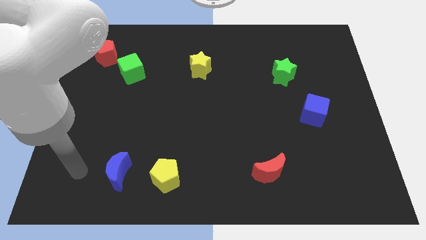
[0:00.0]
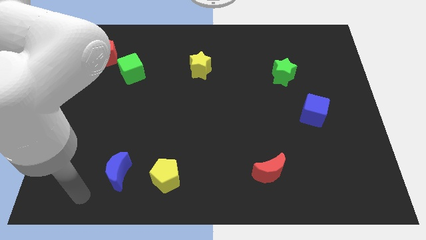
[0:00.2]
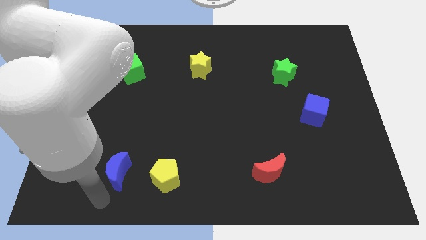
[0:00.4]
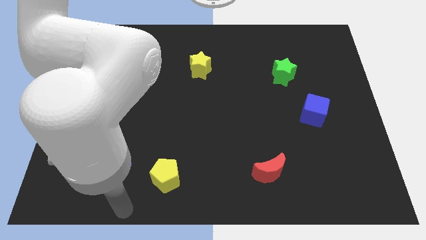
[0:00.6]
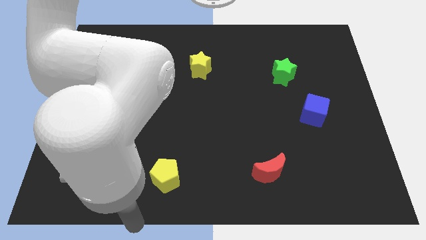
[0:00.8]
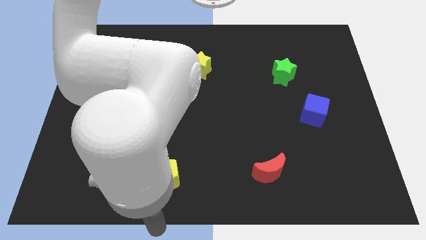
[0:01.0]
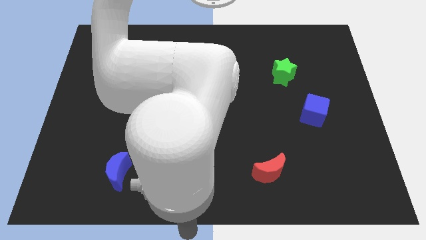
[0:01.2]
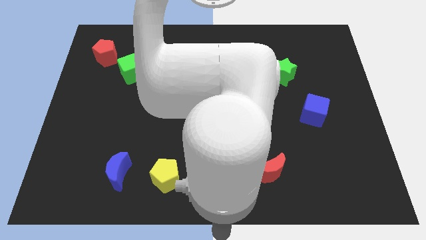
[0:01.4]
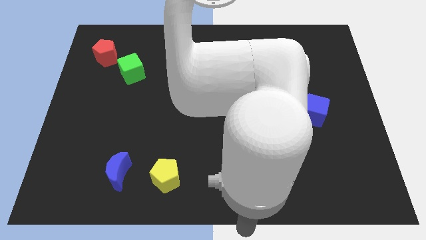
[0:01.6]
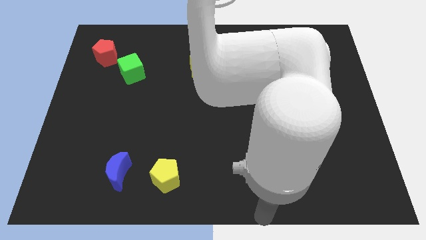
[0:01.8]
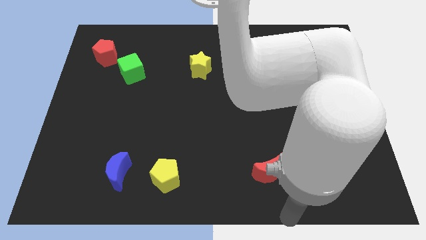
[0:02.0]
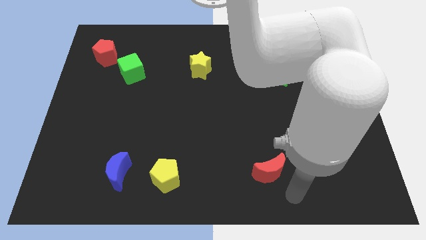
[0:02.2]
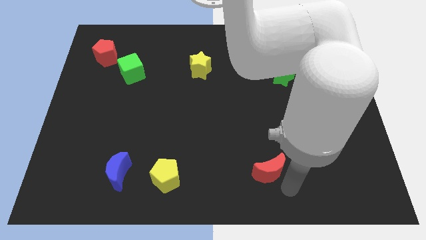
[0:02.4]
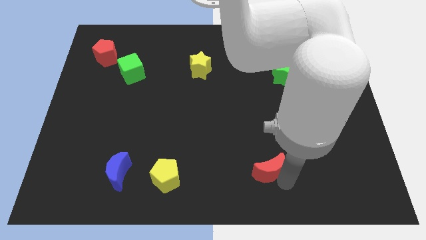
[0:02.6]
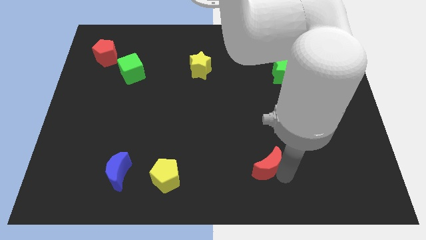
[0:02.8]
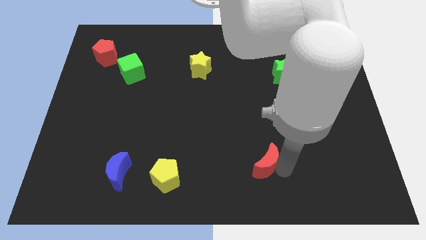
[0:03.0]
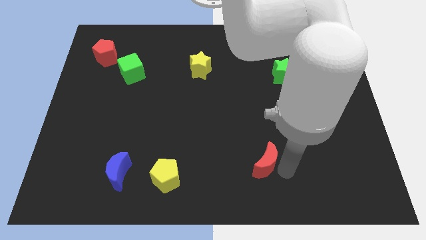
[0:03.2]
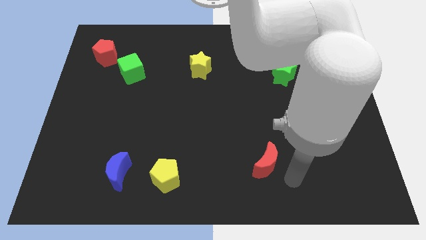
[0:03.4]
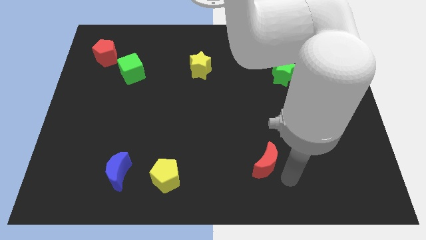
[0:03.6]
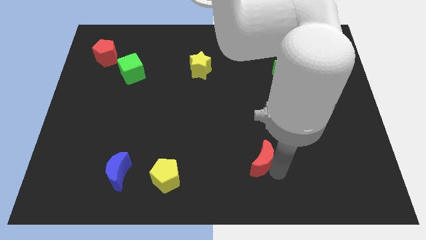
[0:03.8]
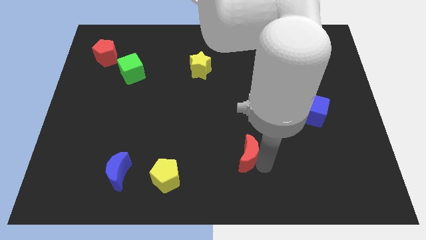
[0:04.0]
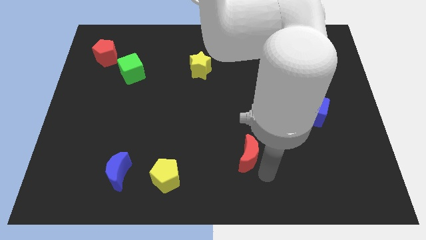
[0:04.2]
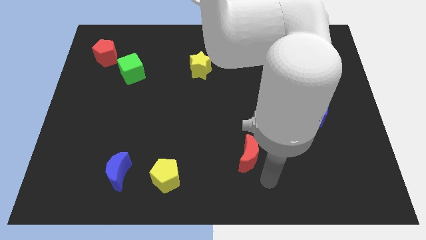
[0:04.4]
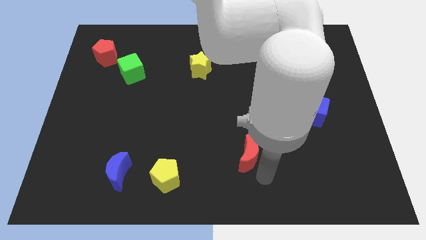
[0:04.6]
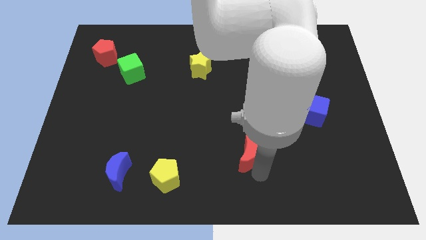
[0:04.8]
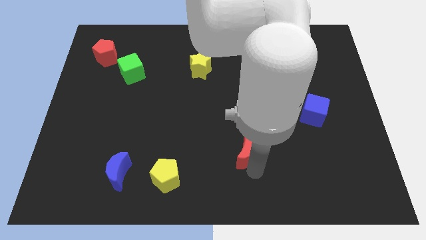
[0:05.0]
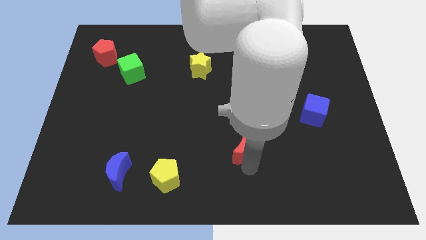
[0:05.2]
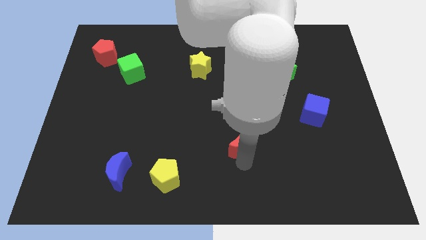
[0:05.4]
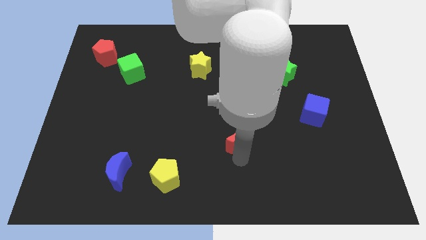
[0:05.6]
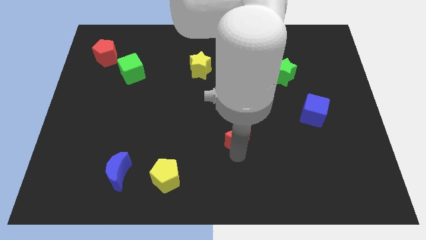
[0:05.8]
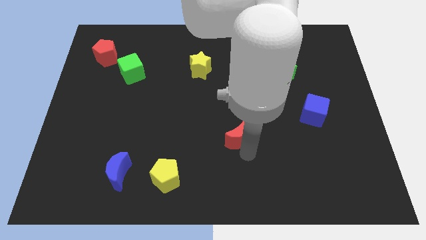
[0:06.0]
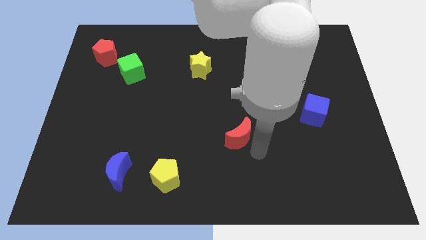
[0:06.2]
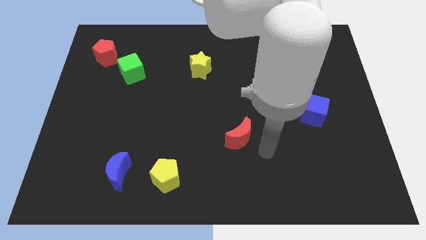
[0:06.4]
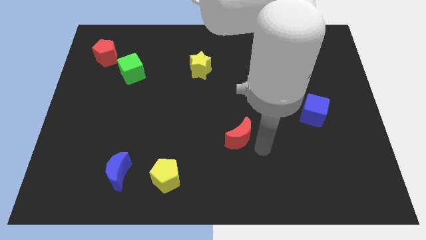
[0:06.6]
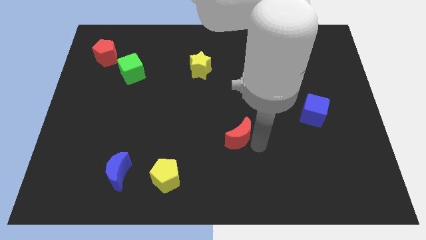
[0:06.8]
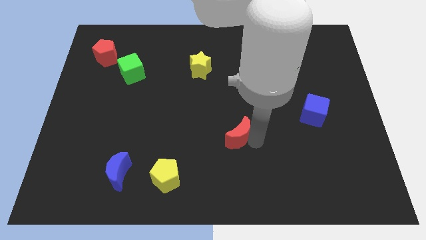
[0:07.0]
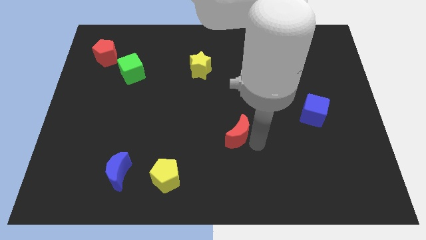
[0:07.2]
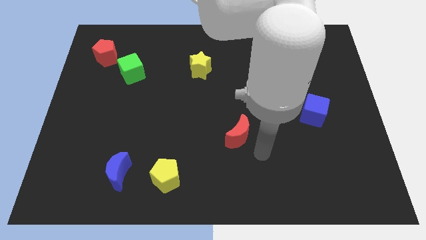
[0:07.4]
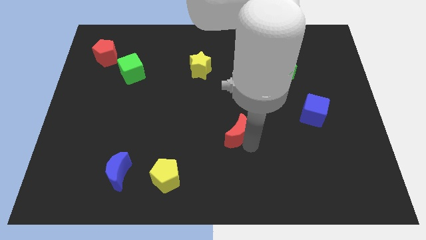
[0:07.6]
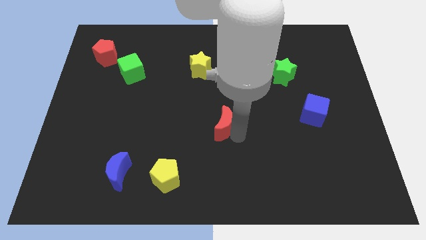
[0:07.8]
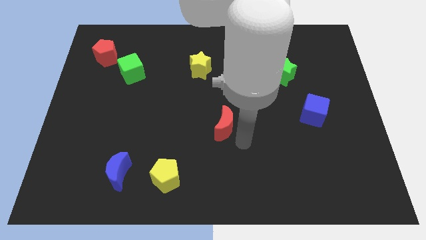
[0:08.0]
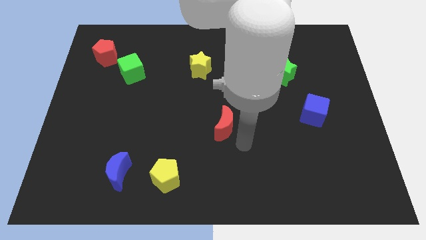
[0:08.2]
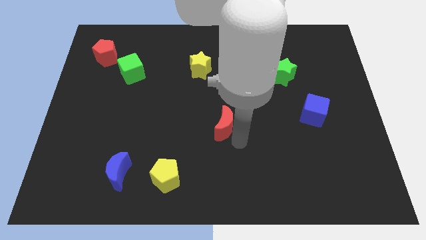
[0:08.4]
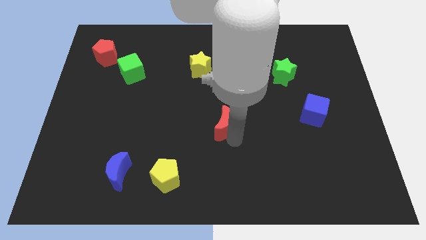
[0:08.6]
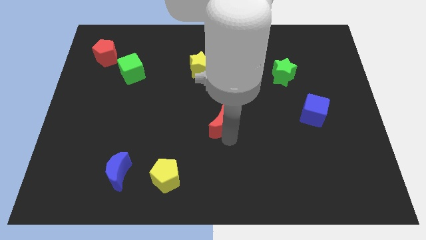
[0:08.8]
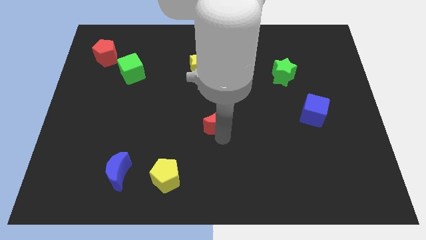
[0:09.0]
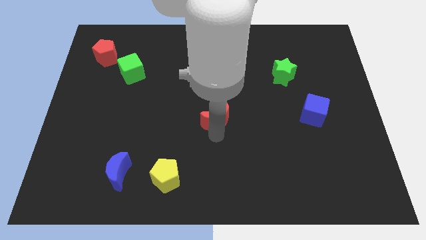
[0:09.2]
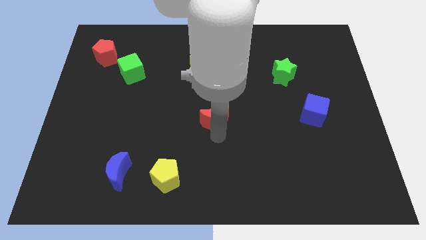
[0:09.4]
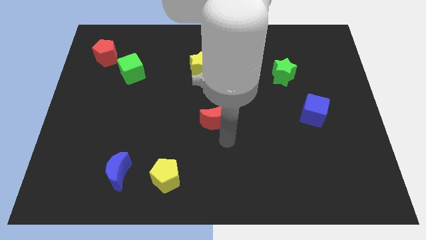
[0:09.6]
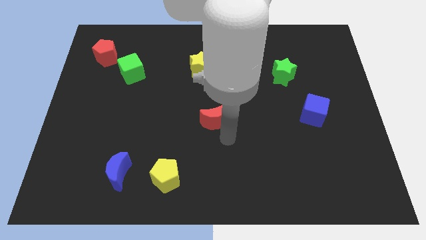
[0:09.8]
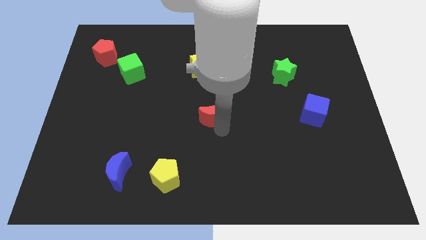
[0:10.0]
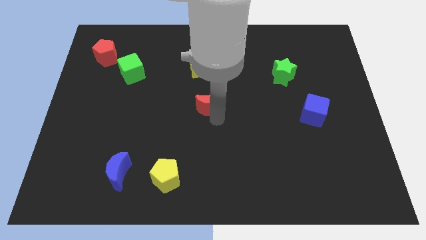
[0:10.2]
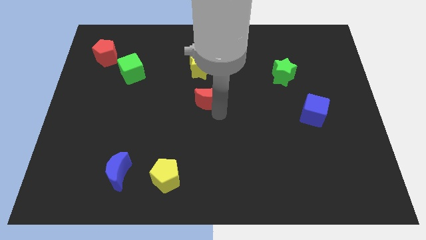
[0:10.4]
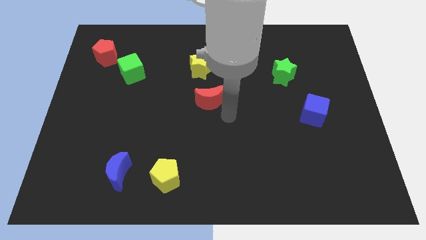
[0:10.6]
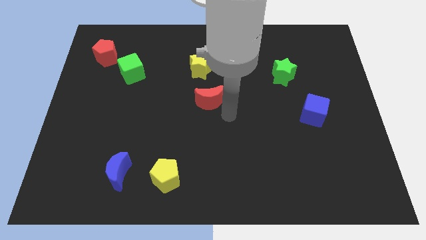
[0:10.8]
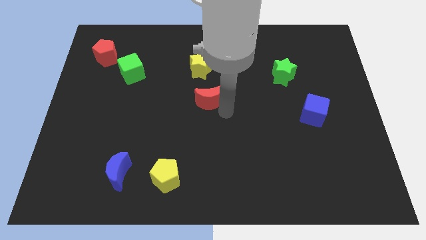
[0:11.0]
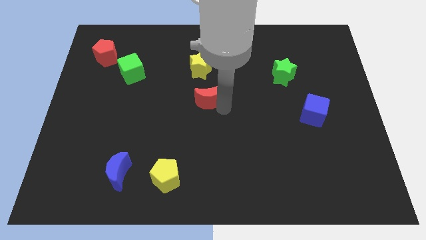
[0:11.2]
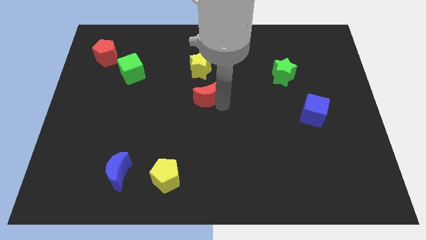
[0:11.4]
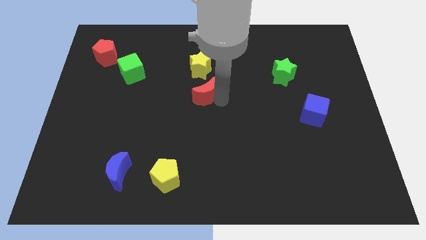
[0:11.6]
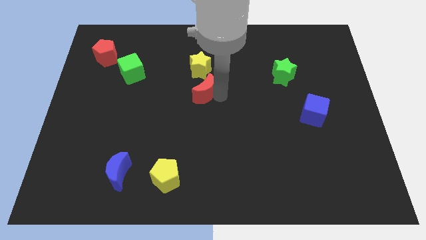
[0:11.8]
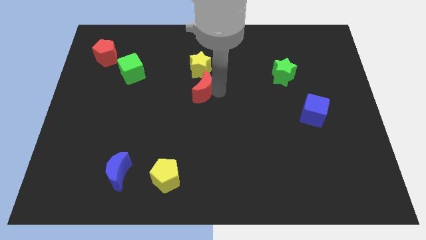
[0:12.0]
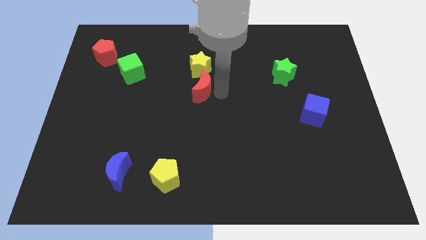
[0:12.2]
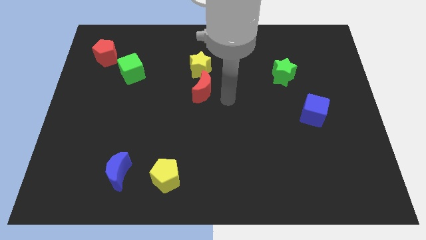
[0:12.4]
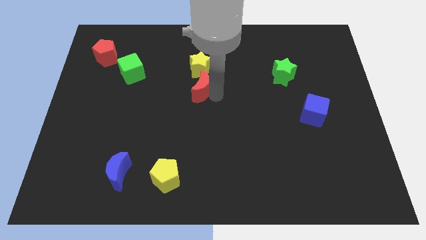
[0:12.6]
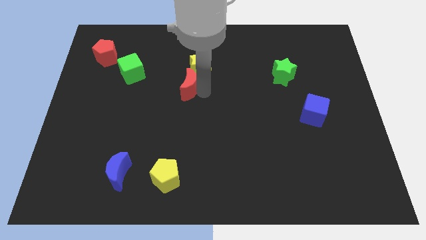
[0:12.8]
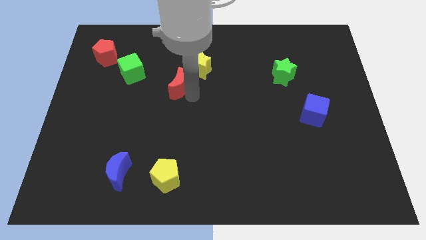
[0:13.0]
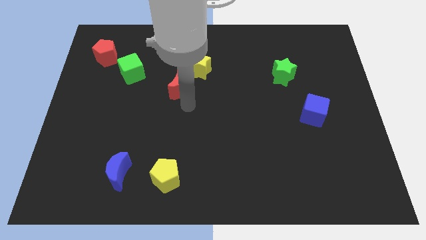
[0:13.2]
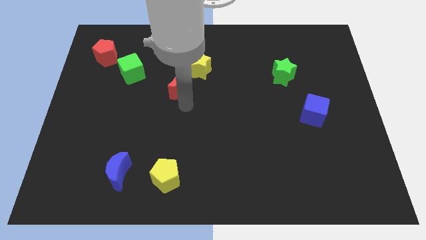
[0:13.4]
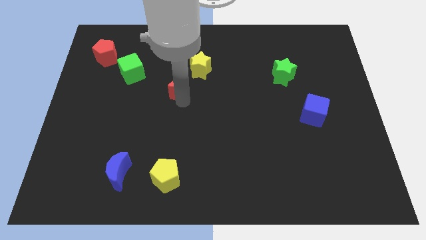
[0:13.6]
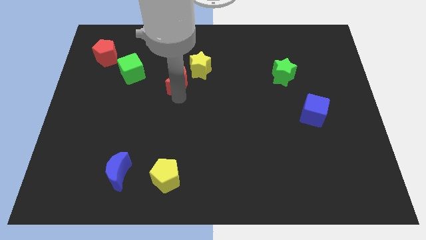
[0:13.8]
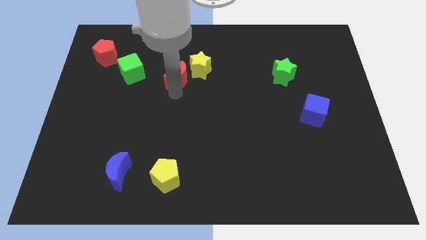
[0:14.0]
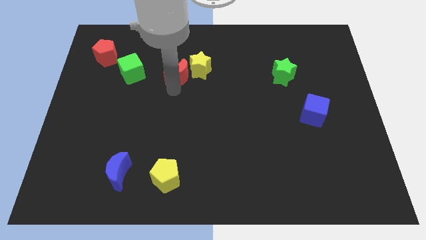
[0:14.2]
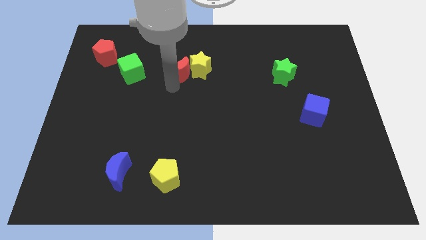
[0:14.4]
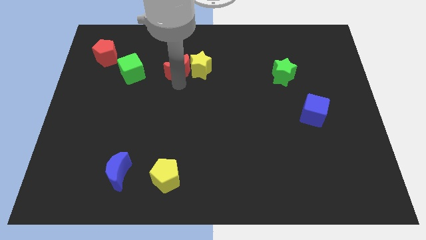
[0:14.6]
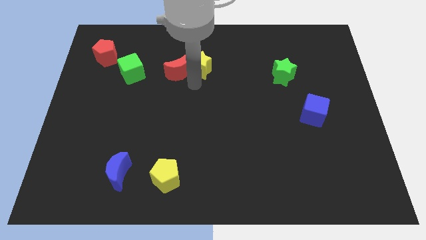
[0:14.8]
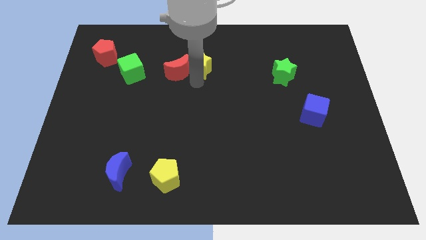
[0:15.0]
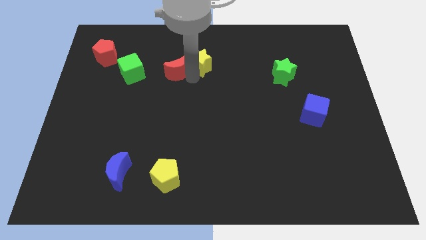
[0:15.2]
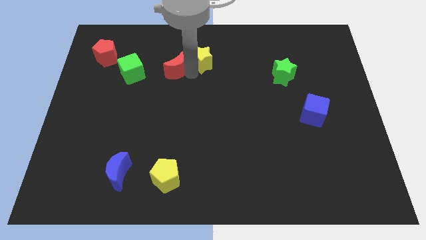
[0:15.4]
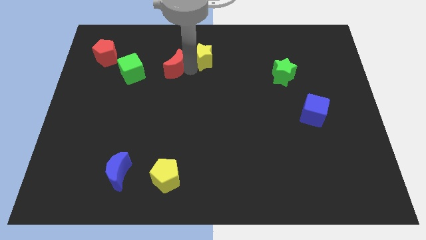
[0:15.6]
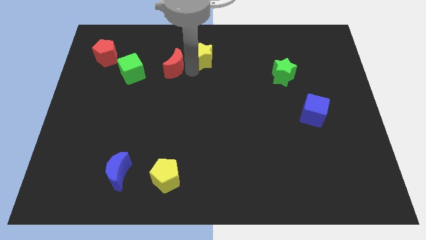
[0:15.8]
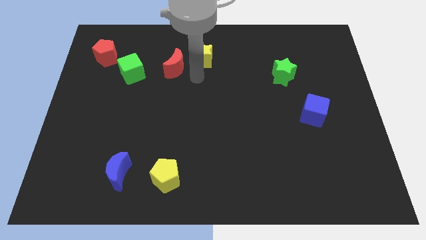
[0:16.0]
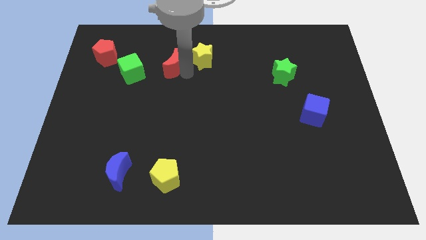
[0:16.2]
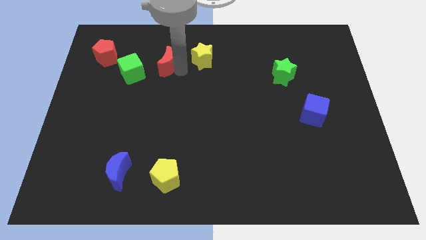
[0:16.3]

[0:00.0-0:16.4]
slide the red moon to the top right side of the green cube
